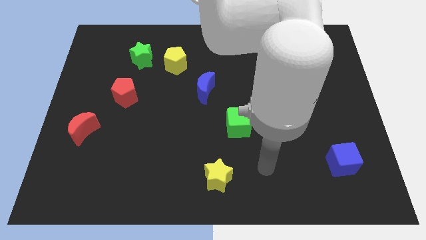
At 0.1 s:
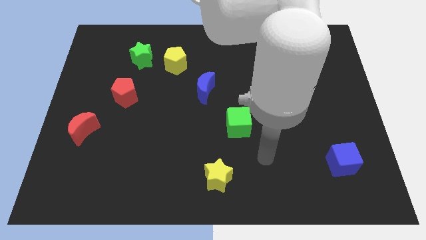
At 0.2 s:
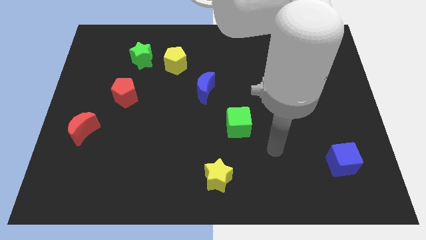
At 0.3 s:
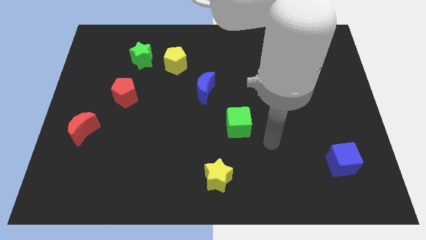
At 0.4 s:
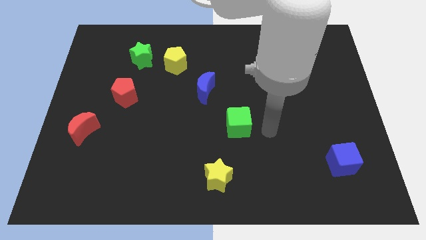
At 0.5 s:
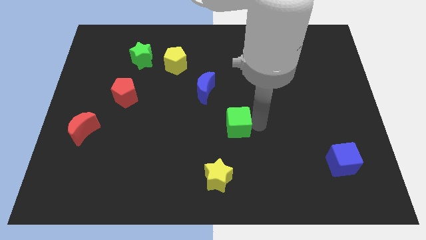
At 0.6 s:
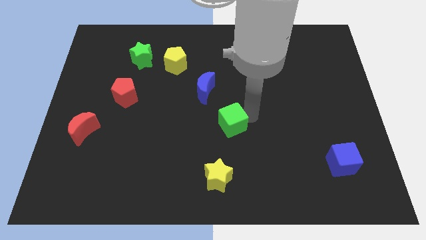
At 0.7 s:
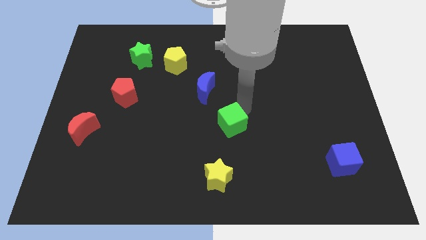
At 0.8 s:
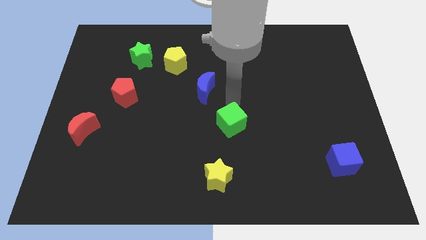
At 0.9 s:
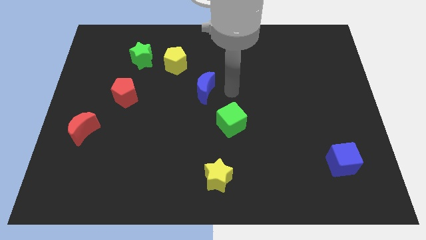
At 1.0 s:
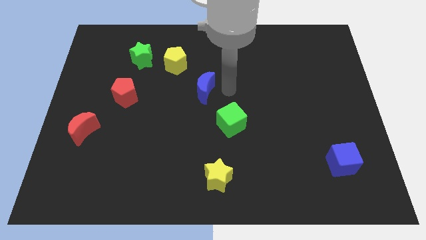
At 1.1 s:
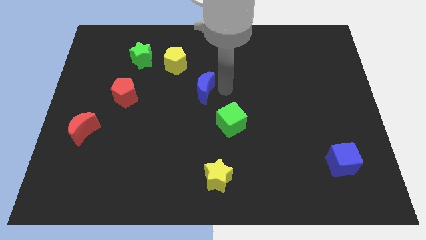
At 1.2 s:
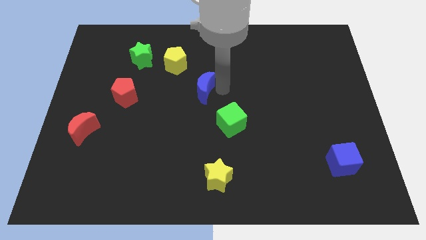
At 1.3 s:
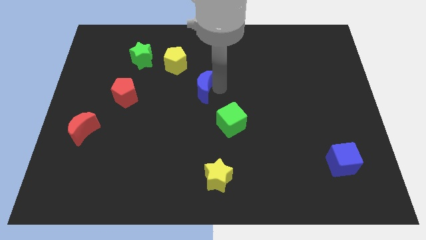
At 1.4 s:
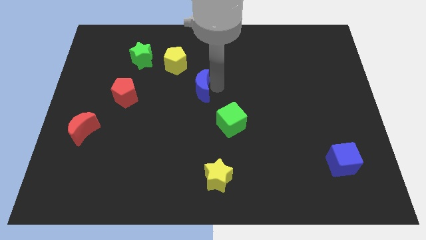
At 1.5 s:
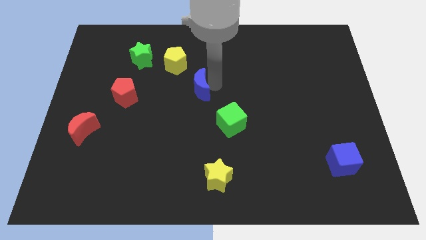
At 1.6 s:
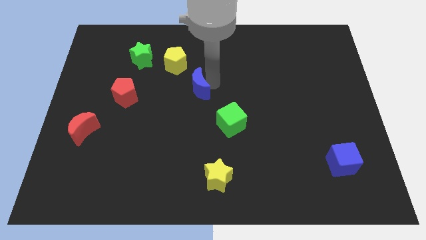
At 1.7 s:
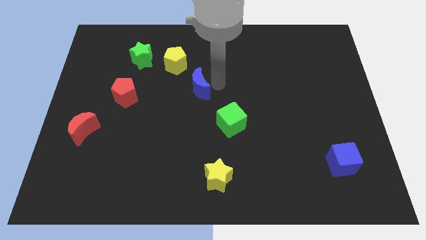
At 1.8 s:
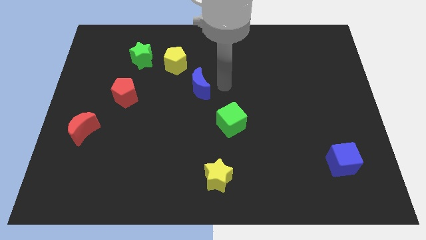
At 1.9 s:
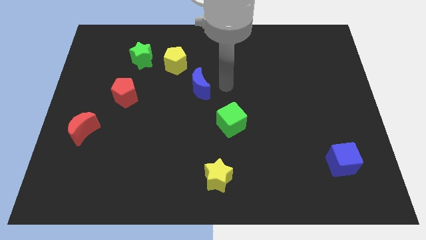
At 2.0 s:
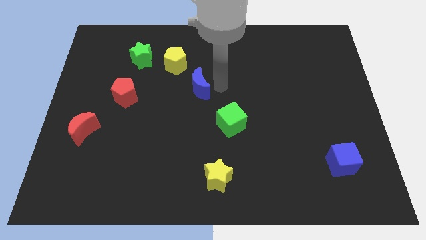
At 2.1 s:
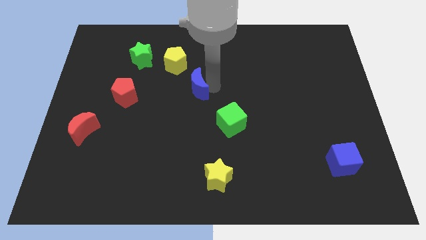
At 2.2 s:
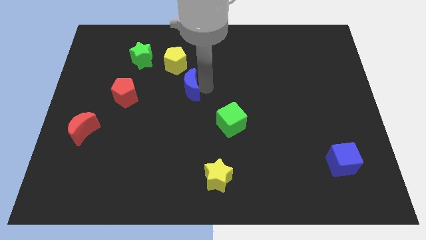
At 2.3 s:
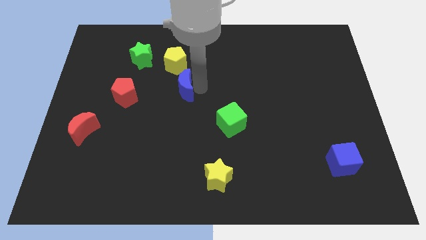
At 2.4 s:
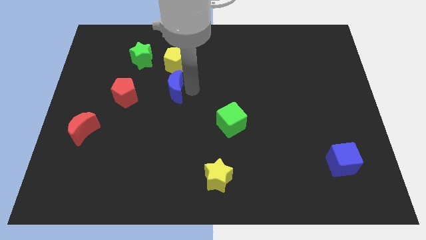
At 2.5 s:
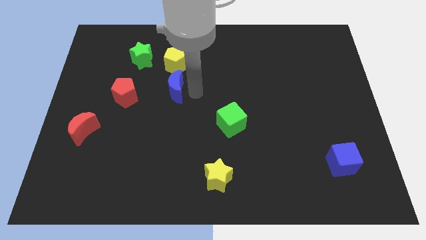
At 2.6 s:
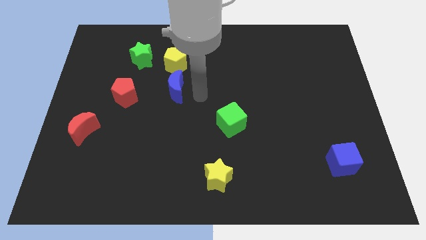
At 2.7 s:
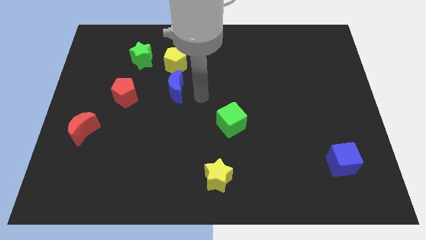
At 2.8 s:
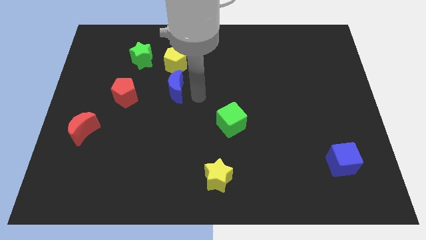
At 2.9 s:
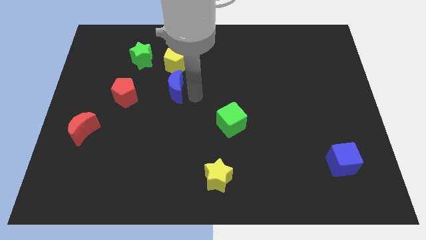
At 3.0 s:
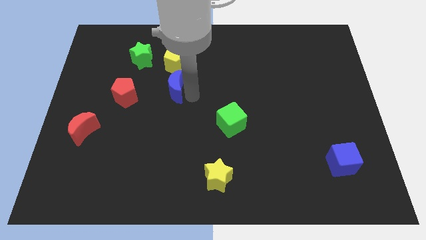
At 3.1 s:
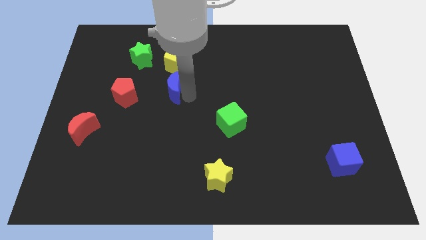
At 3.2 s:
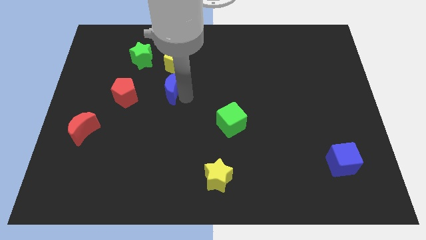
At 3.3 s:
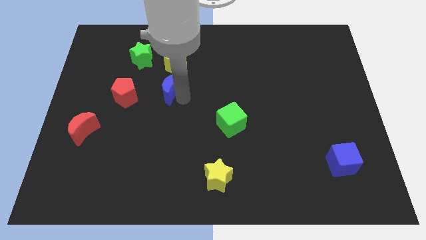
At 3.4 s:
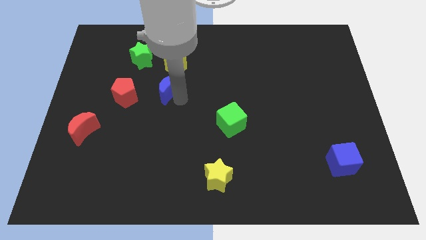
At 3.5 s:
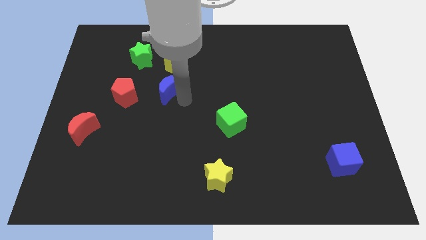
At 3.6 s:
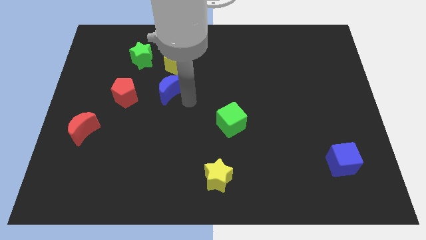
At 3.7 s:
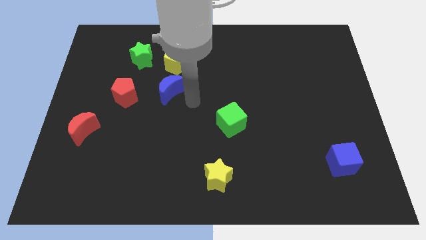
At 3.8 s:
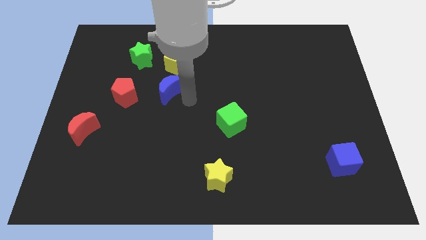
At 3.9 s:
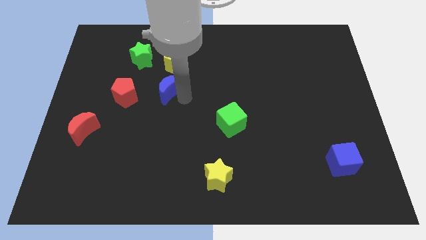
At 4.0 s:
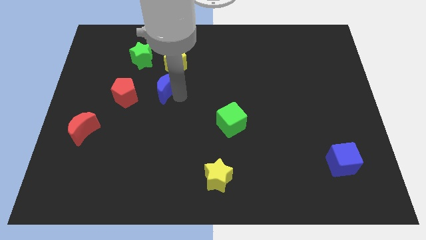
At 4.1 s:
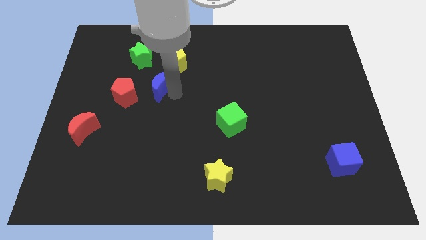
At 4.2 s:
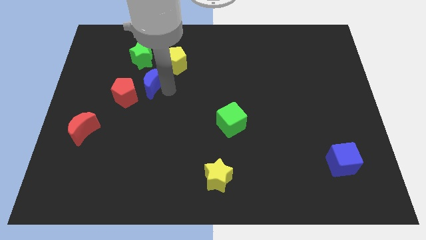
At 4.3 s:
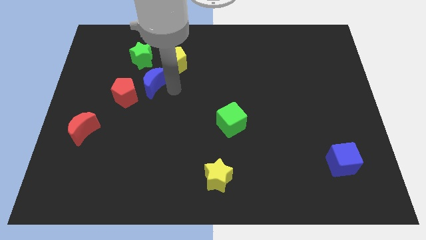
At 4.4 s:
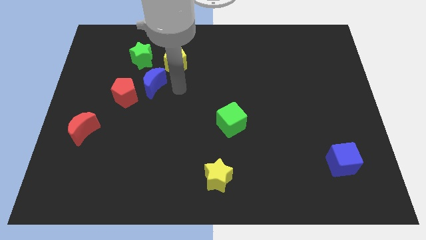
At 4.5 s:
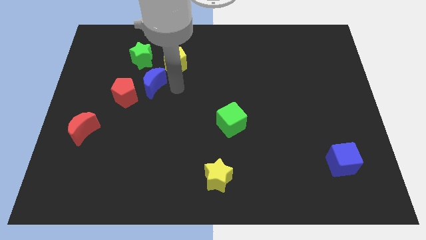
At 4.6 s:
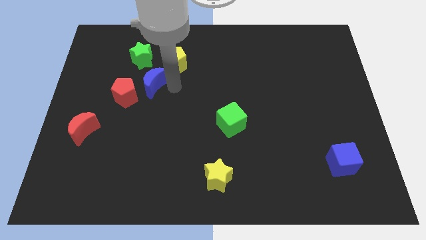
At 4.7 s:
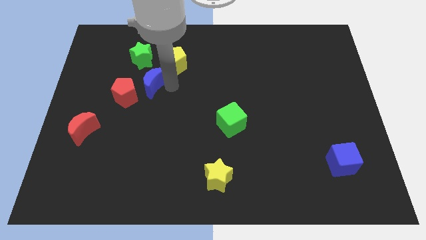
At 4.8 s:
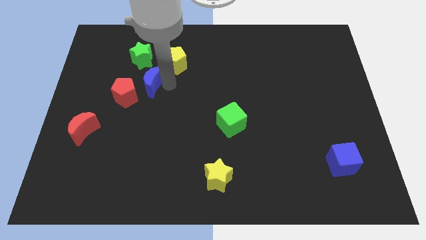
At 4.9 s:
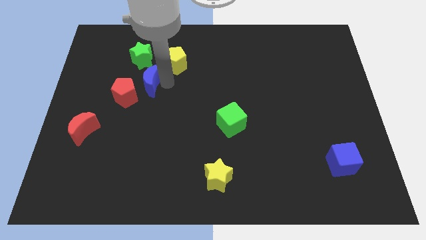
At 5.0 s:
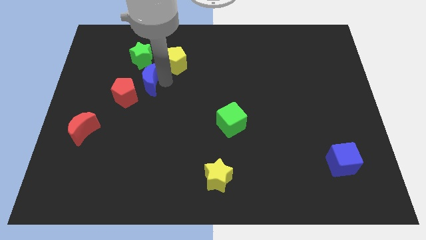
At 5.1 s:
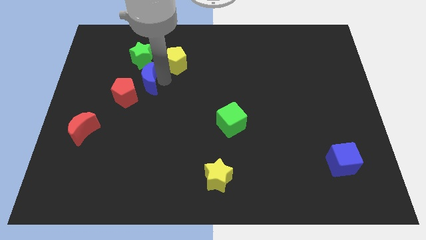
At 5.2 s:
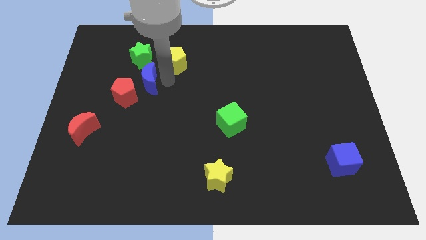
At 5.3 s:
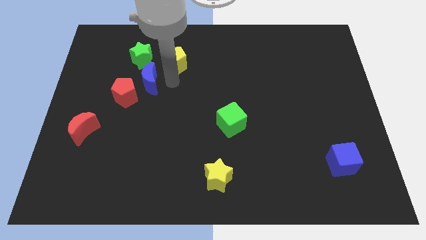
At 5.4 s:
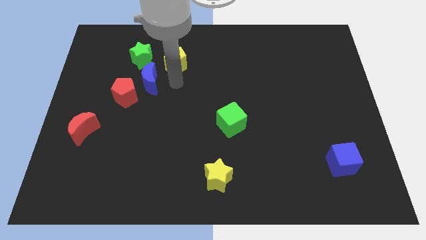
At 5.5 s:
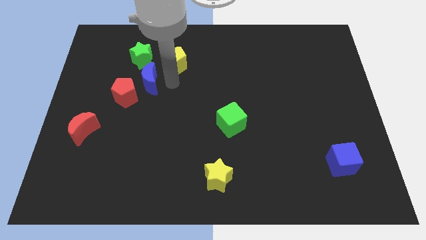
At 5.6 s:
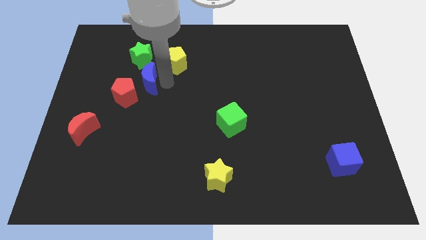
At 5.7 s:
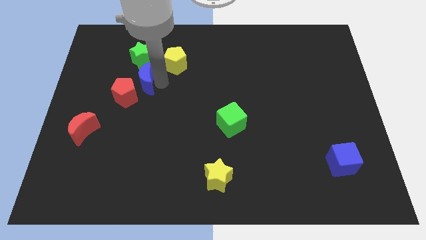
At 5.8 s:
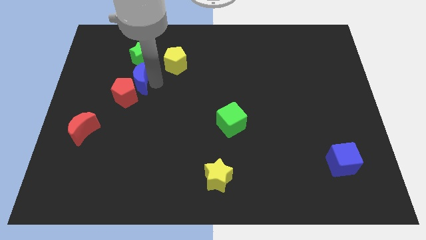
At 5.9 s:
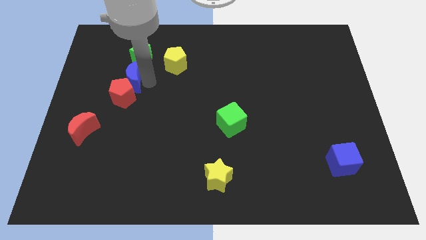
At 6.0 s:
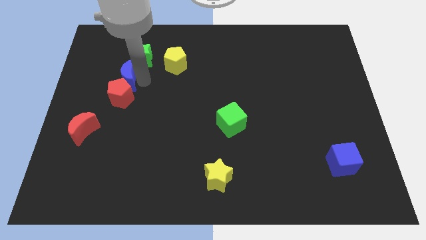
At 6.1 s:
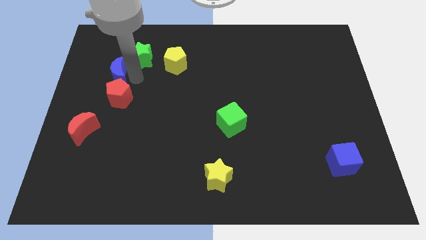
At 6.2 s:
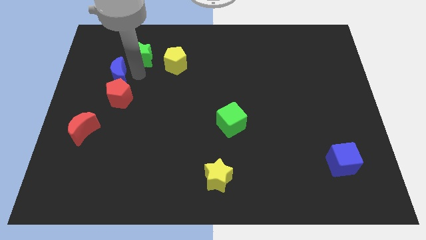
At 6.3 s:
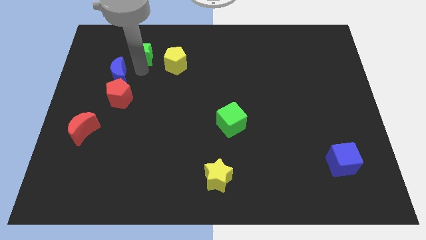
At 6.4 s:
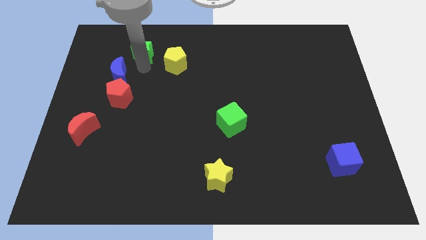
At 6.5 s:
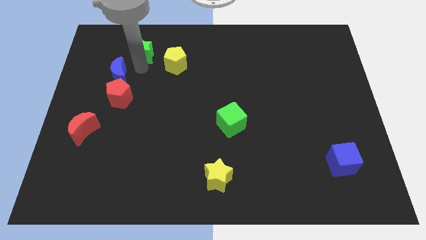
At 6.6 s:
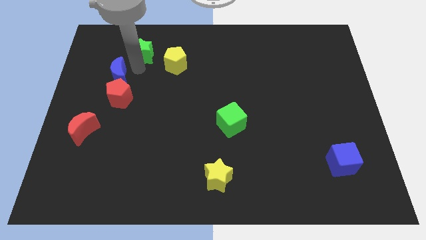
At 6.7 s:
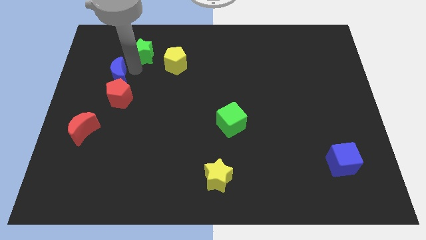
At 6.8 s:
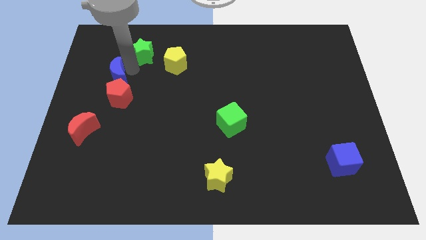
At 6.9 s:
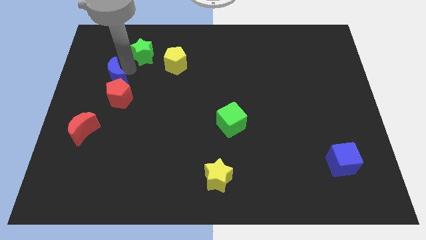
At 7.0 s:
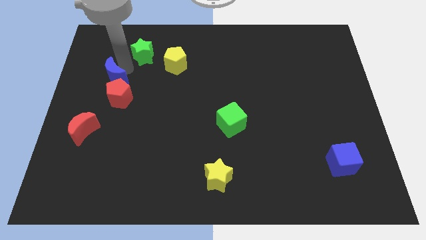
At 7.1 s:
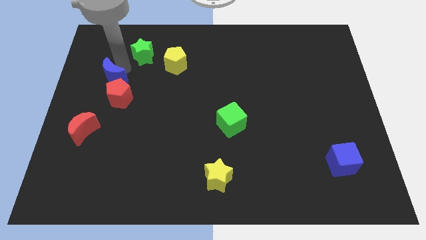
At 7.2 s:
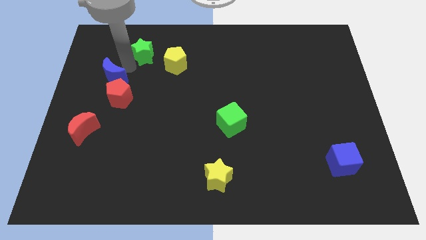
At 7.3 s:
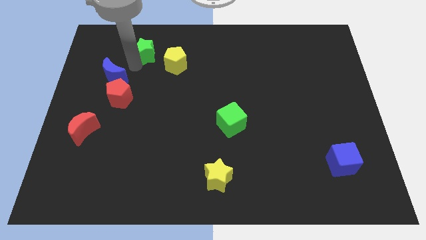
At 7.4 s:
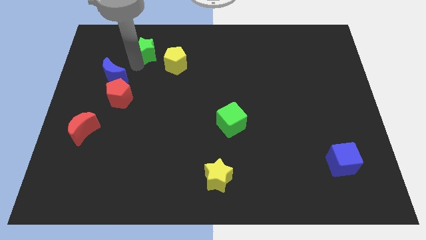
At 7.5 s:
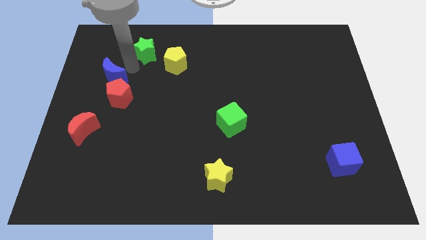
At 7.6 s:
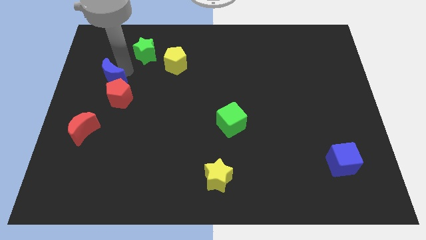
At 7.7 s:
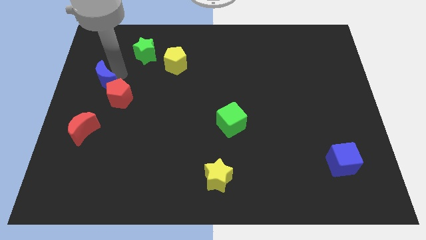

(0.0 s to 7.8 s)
put the blue moon to the center left
